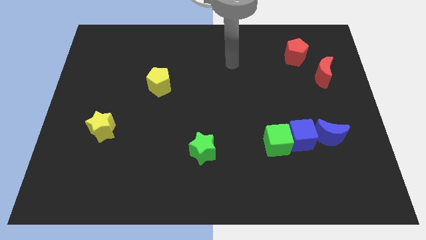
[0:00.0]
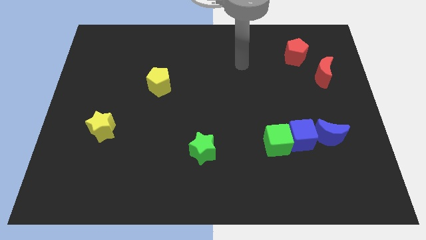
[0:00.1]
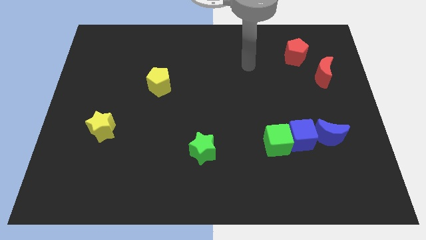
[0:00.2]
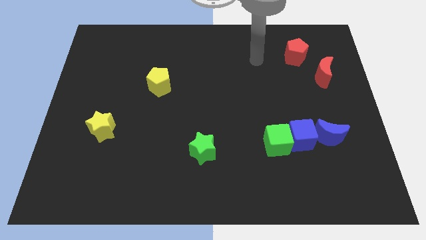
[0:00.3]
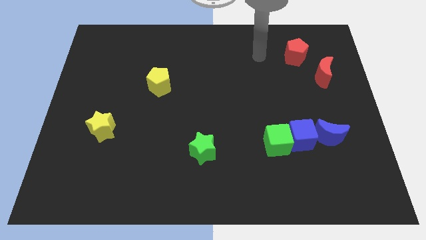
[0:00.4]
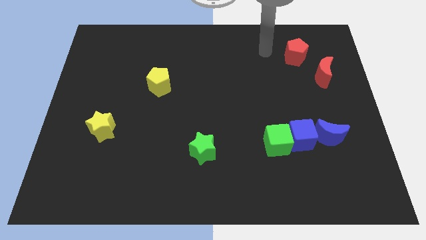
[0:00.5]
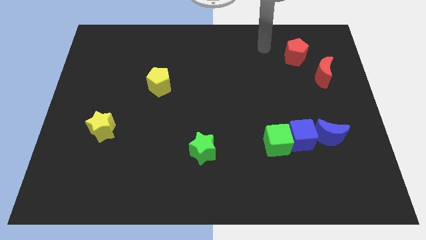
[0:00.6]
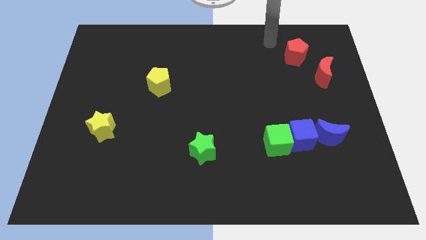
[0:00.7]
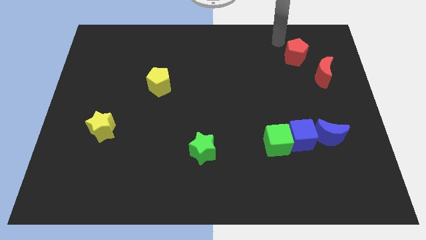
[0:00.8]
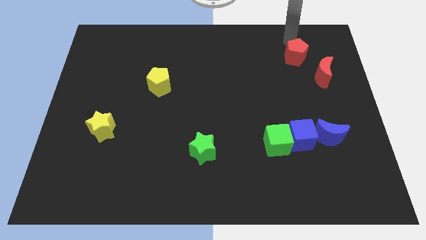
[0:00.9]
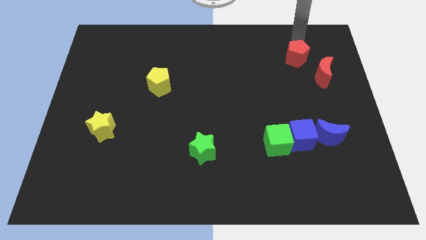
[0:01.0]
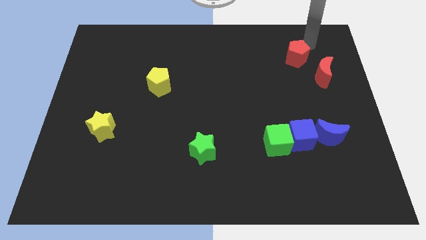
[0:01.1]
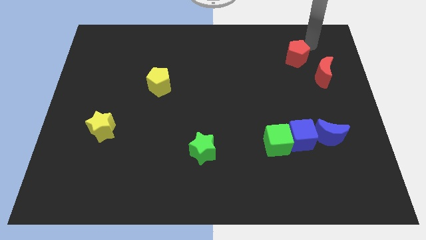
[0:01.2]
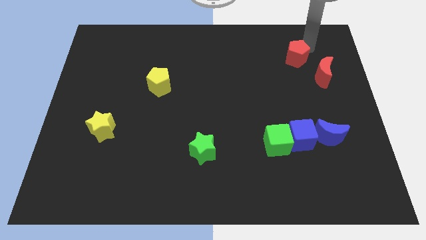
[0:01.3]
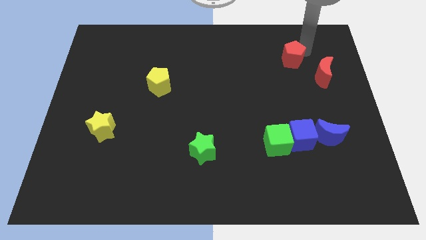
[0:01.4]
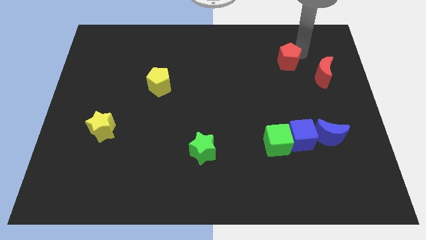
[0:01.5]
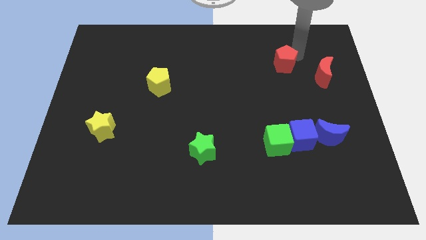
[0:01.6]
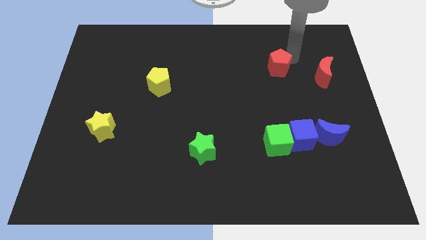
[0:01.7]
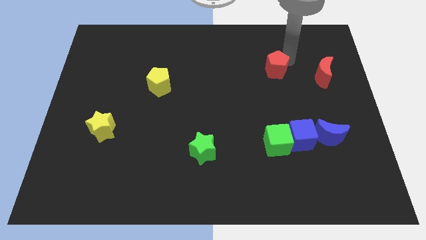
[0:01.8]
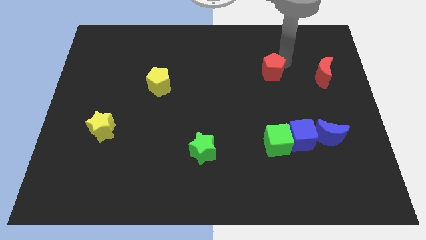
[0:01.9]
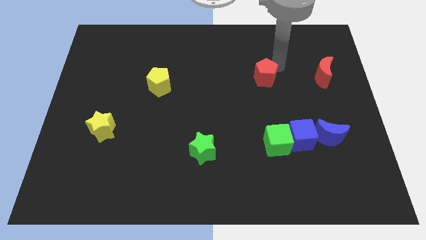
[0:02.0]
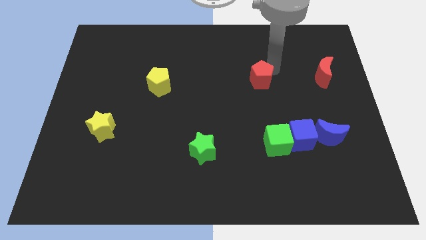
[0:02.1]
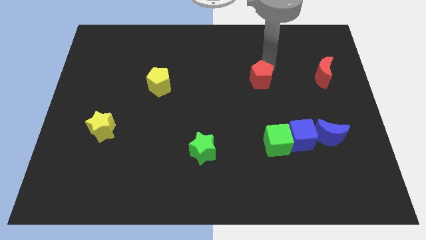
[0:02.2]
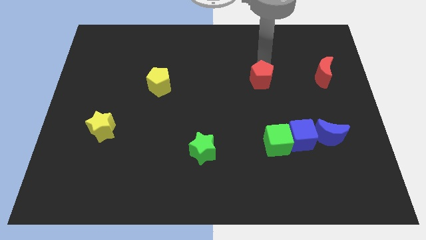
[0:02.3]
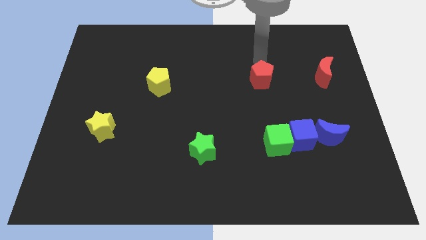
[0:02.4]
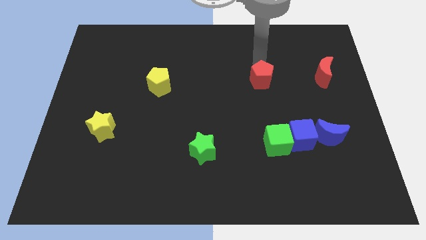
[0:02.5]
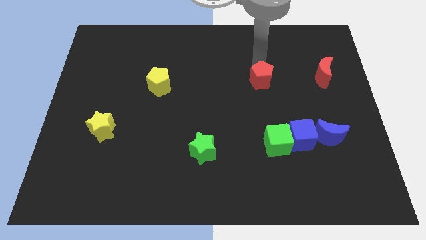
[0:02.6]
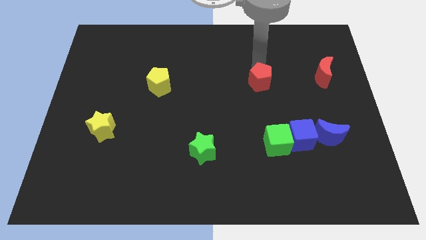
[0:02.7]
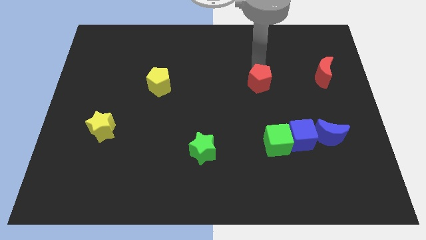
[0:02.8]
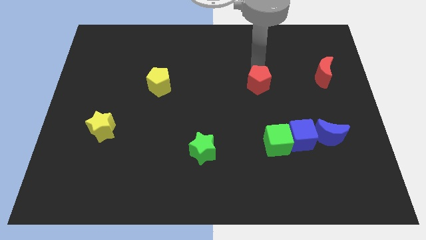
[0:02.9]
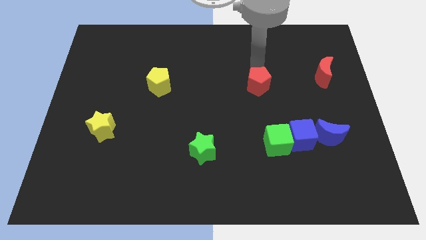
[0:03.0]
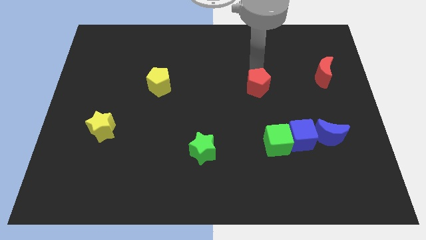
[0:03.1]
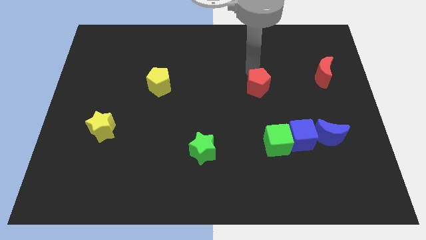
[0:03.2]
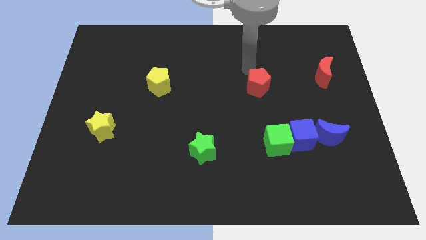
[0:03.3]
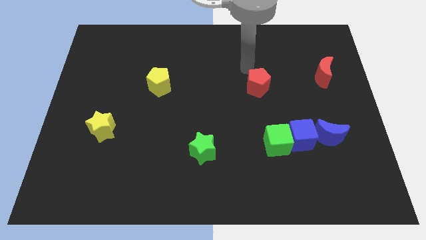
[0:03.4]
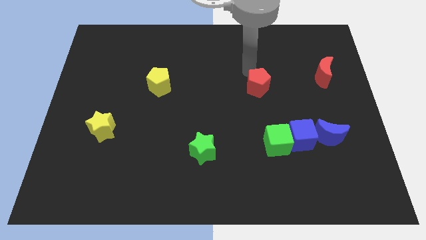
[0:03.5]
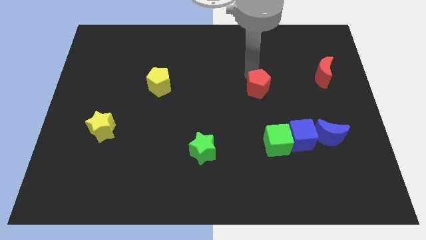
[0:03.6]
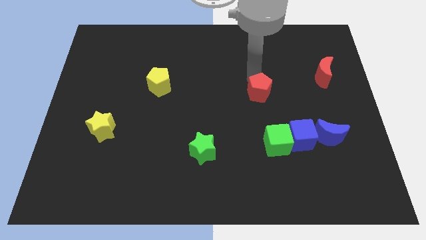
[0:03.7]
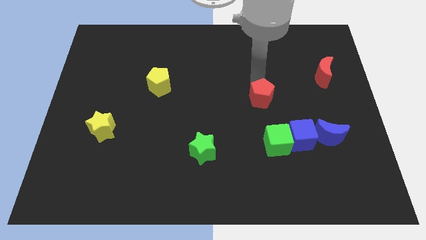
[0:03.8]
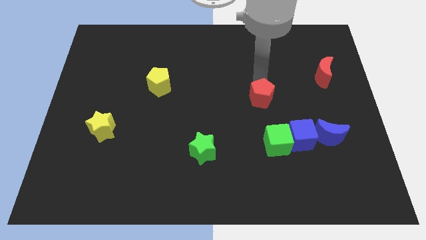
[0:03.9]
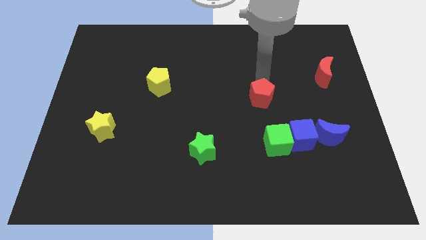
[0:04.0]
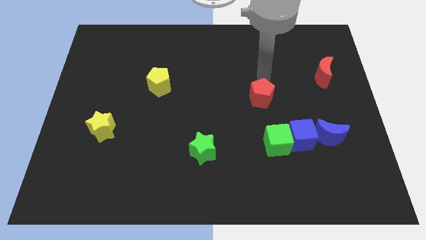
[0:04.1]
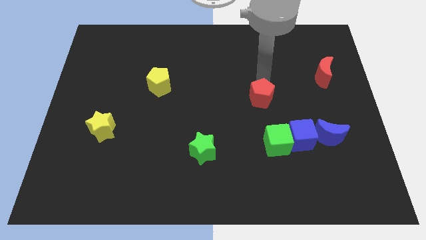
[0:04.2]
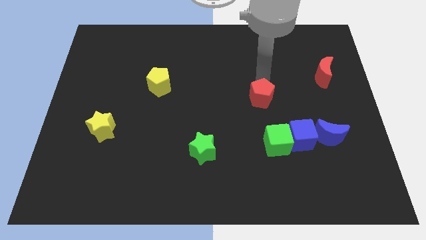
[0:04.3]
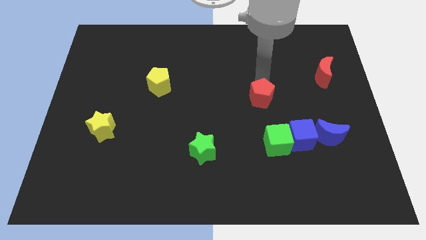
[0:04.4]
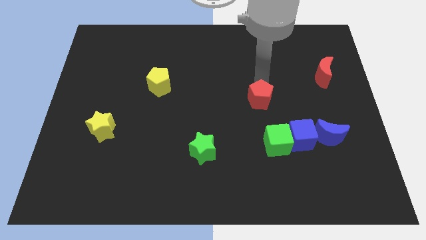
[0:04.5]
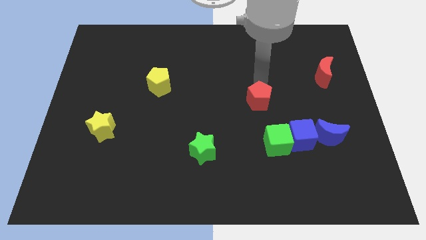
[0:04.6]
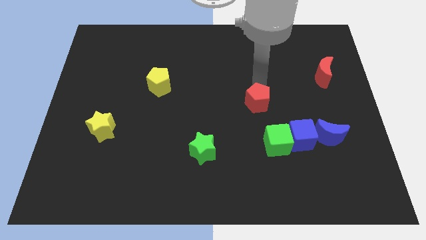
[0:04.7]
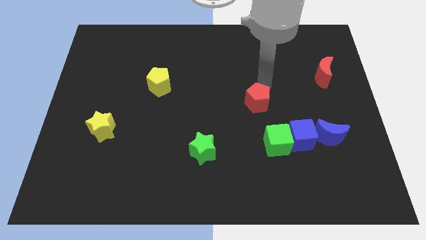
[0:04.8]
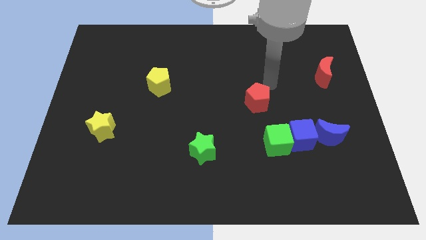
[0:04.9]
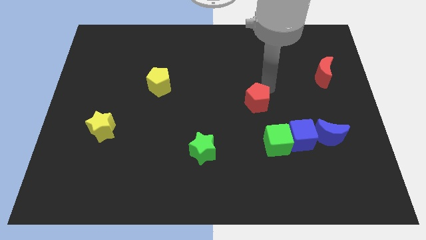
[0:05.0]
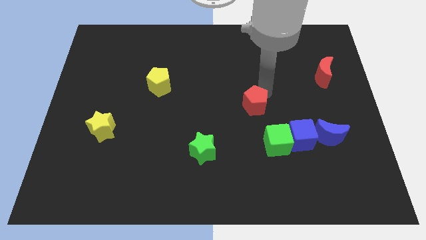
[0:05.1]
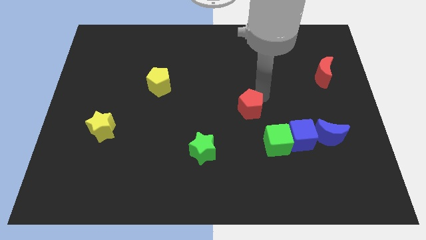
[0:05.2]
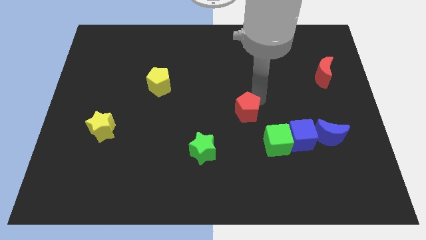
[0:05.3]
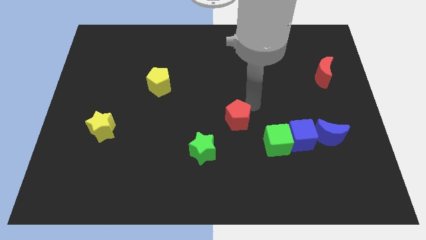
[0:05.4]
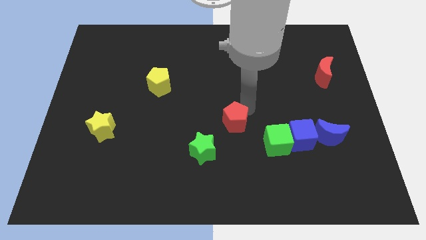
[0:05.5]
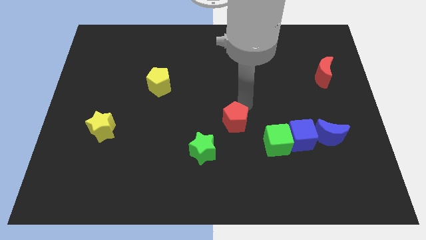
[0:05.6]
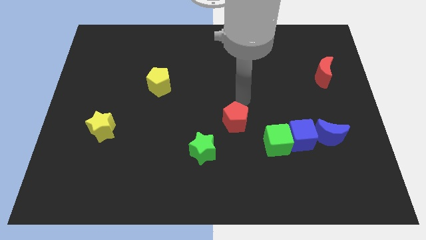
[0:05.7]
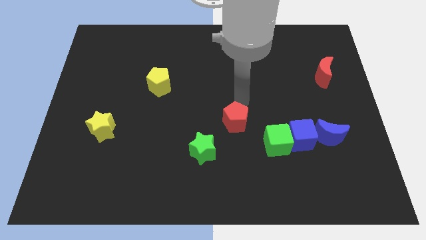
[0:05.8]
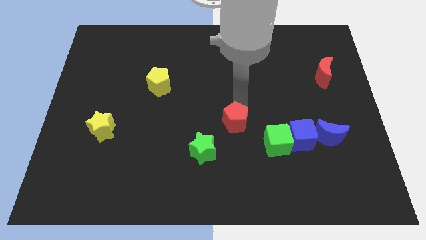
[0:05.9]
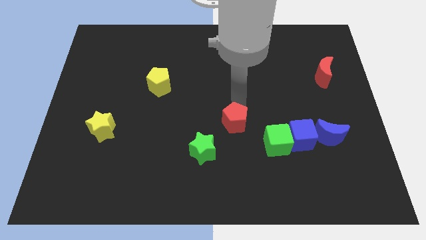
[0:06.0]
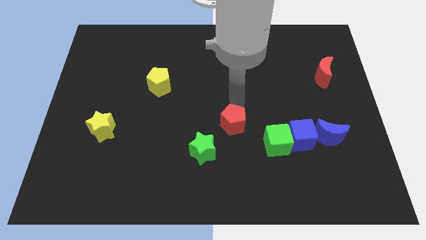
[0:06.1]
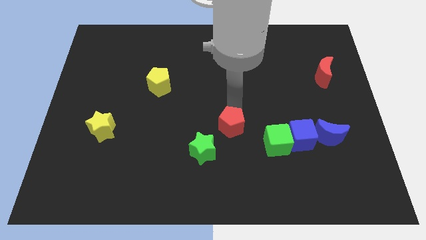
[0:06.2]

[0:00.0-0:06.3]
slide the red pentagon to the left of the green cube
